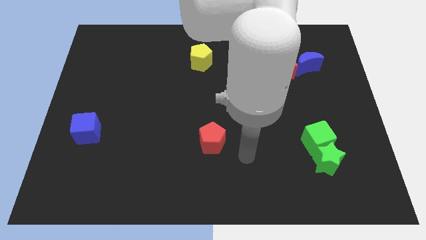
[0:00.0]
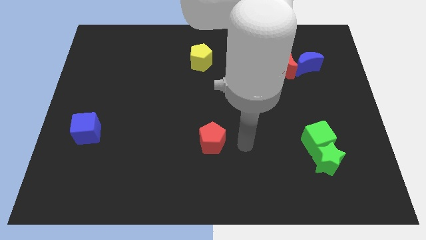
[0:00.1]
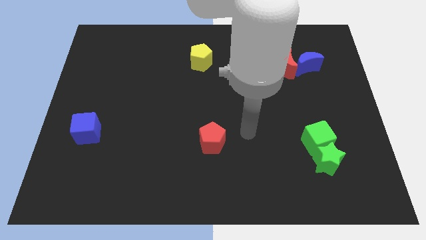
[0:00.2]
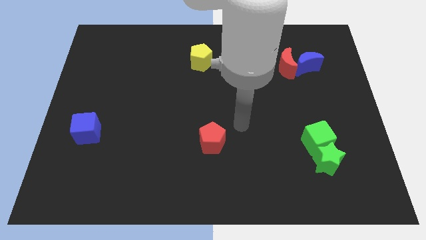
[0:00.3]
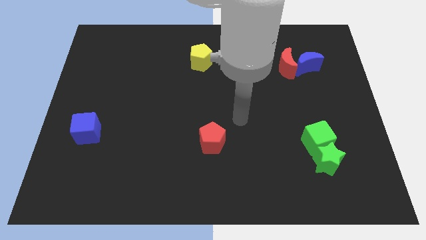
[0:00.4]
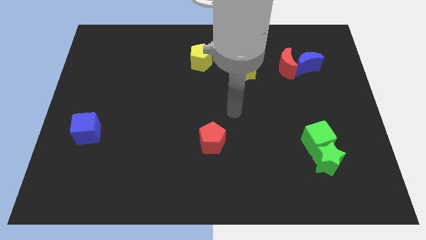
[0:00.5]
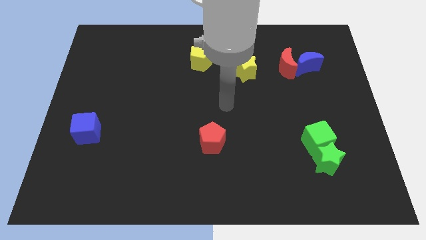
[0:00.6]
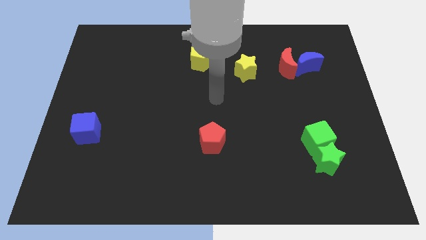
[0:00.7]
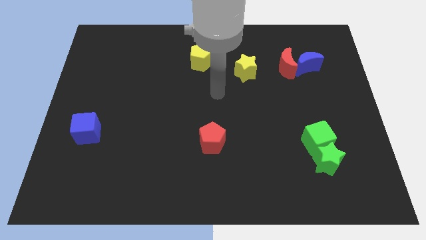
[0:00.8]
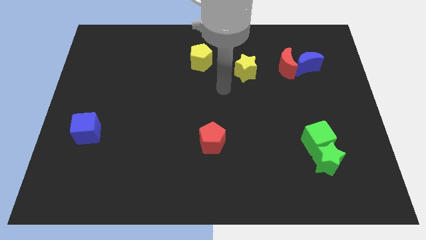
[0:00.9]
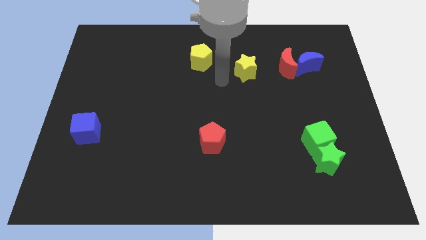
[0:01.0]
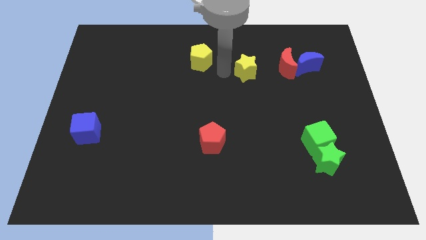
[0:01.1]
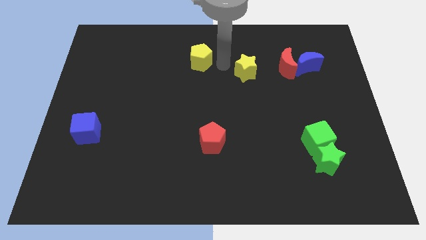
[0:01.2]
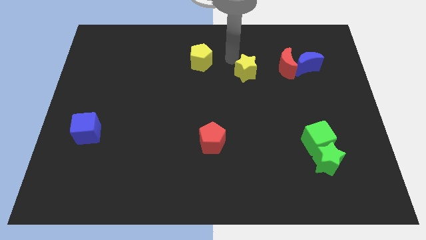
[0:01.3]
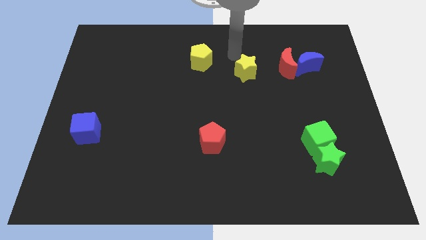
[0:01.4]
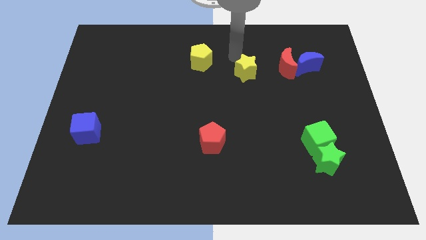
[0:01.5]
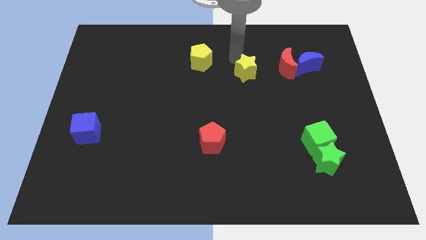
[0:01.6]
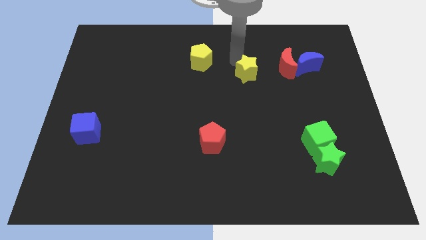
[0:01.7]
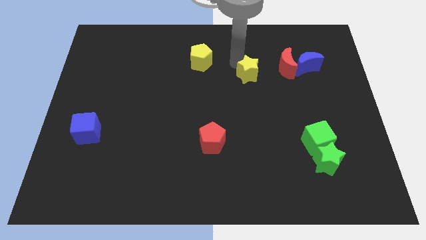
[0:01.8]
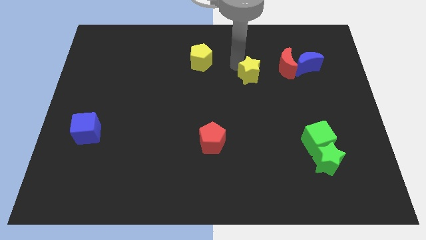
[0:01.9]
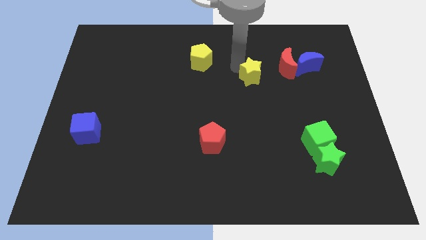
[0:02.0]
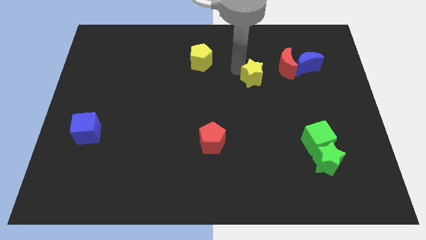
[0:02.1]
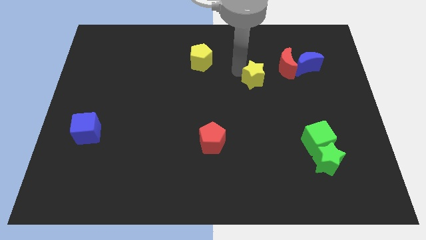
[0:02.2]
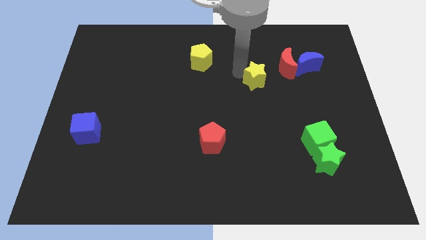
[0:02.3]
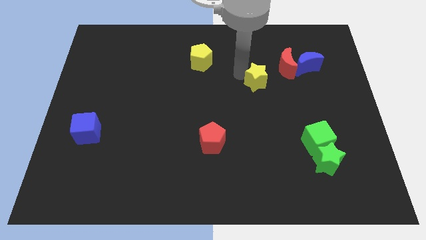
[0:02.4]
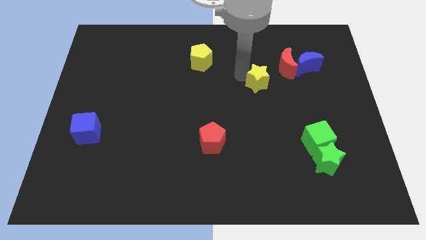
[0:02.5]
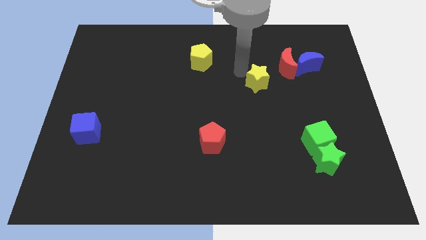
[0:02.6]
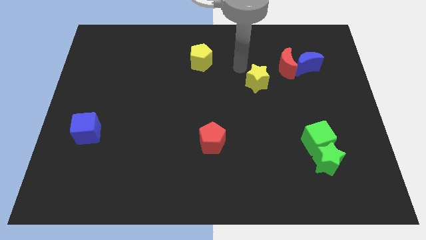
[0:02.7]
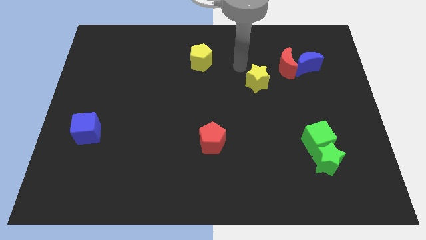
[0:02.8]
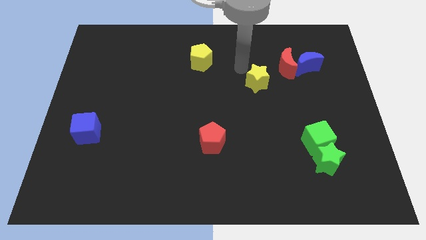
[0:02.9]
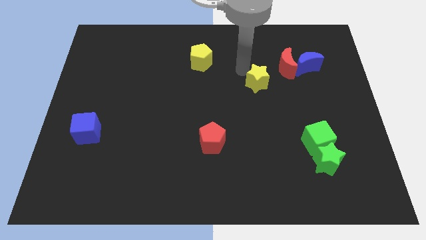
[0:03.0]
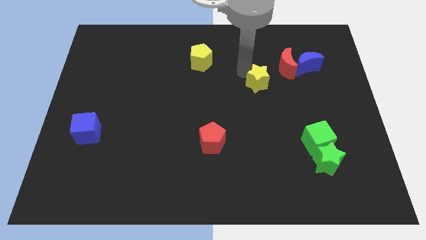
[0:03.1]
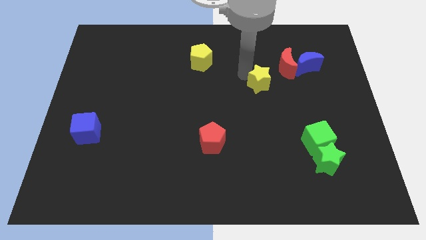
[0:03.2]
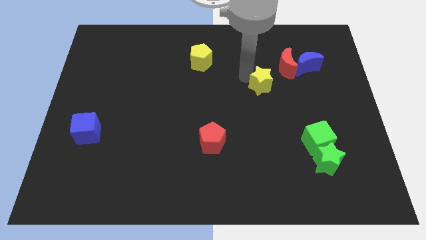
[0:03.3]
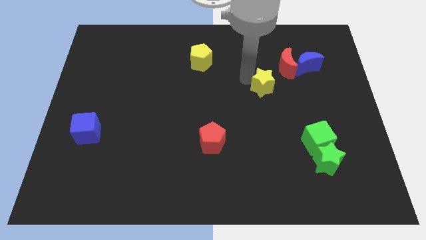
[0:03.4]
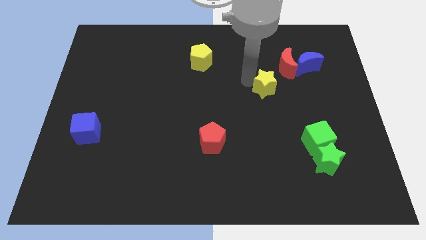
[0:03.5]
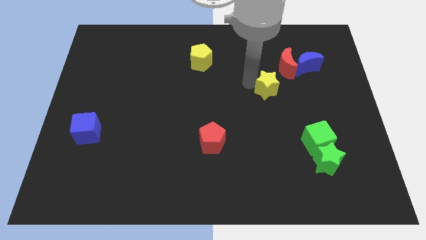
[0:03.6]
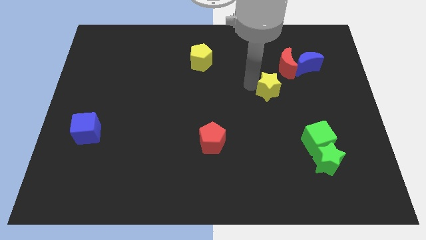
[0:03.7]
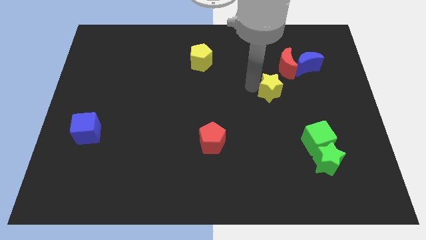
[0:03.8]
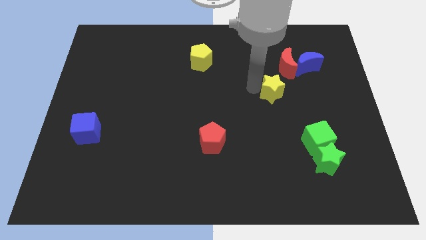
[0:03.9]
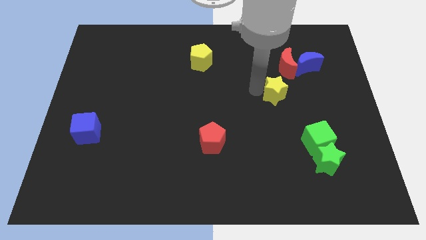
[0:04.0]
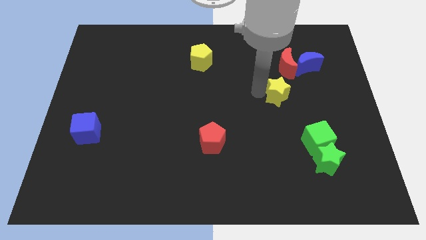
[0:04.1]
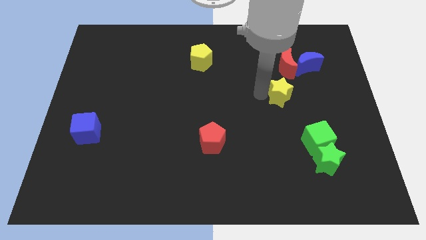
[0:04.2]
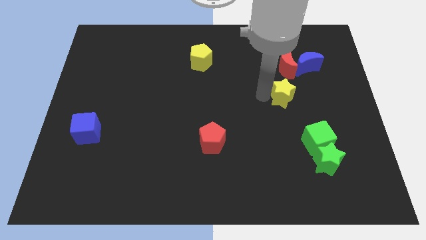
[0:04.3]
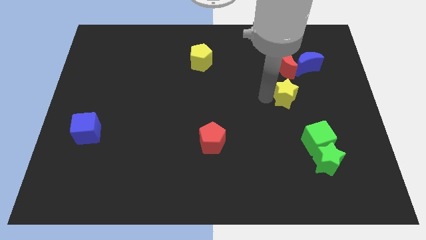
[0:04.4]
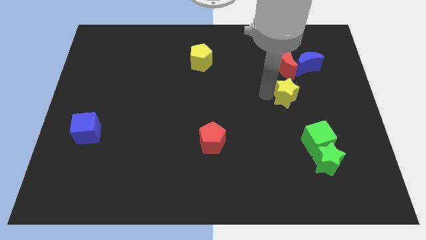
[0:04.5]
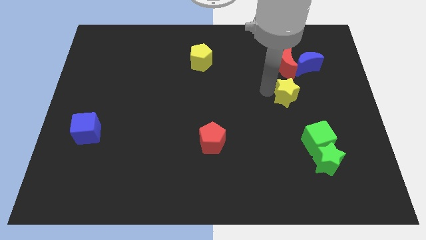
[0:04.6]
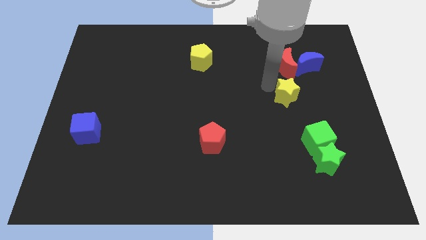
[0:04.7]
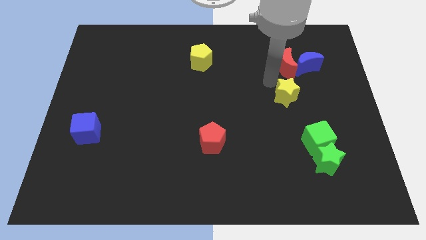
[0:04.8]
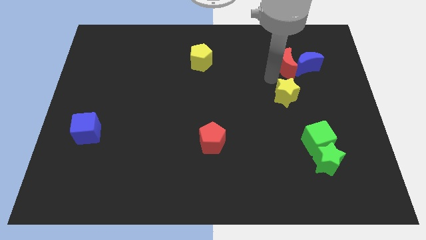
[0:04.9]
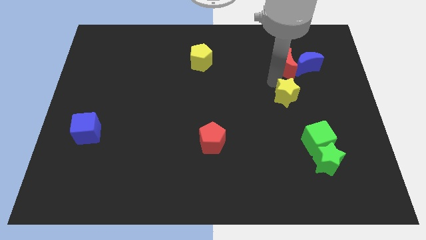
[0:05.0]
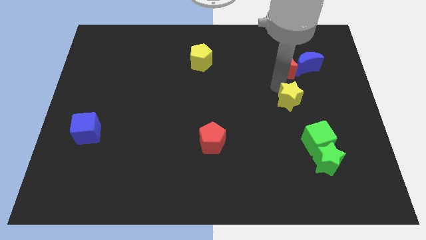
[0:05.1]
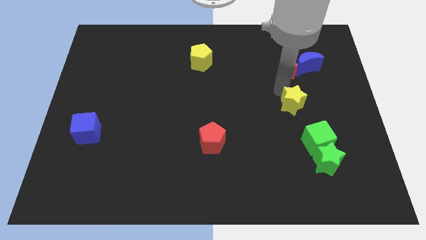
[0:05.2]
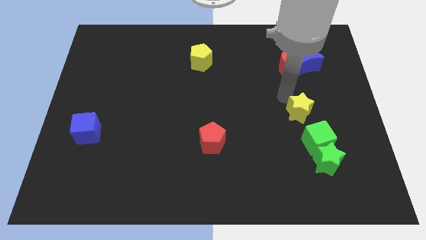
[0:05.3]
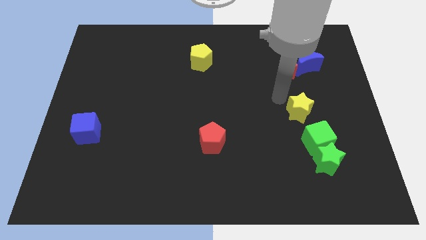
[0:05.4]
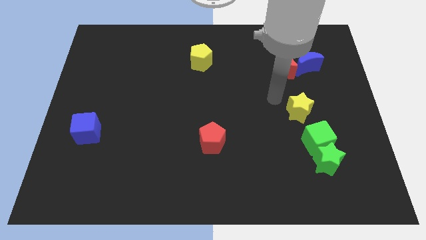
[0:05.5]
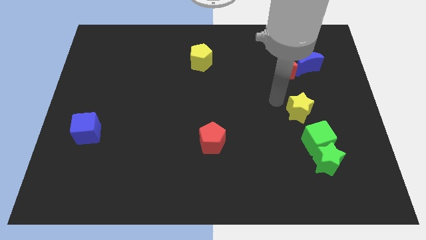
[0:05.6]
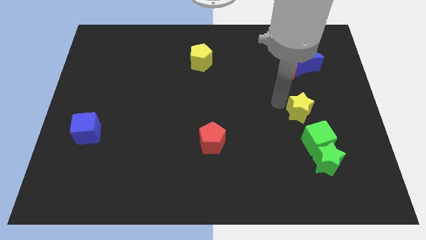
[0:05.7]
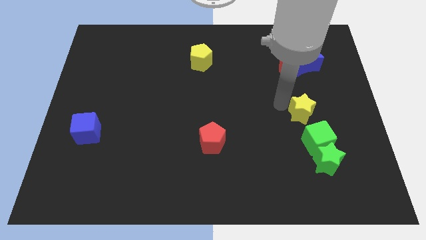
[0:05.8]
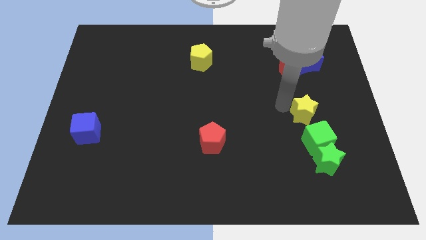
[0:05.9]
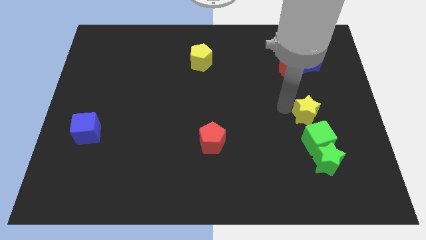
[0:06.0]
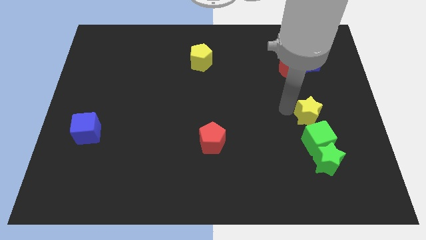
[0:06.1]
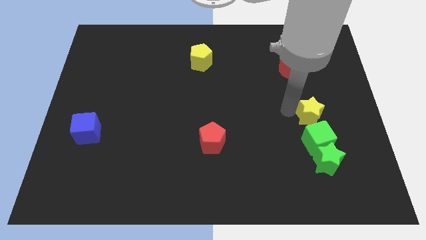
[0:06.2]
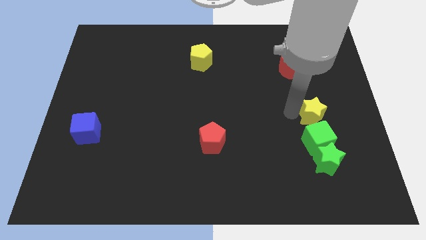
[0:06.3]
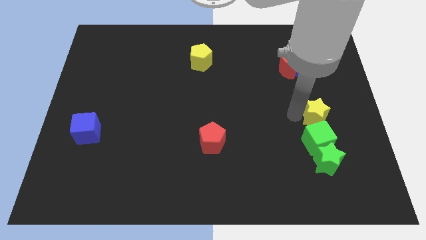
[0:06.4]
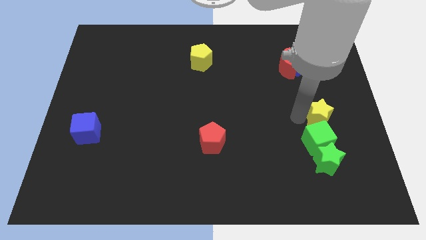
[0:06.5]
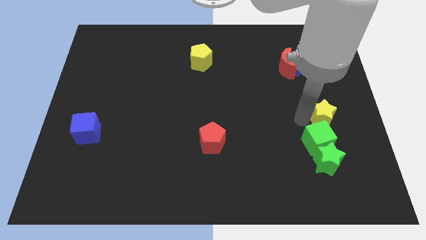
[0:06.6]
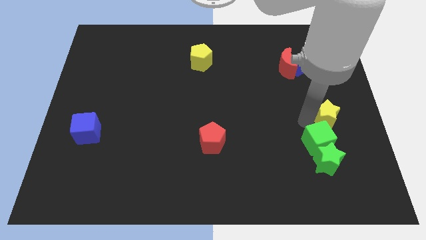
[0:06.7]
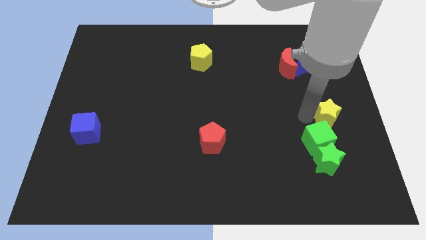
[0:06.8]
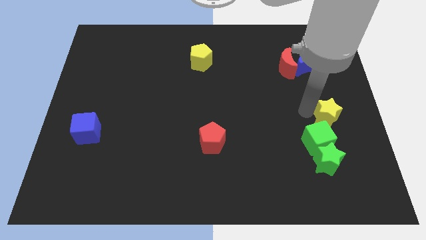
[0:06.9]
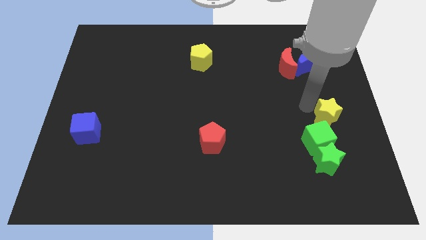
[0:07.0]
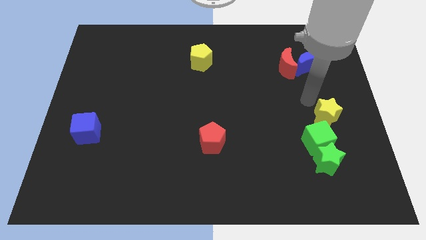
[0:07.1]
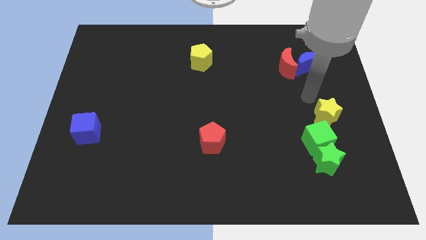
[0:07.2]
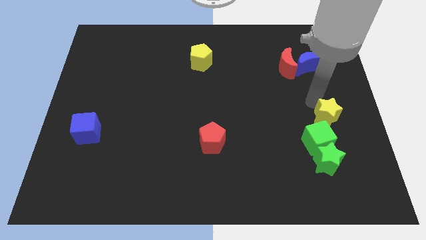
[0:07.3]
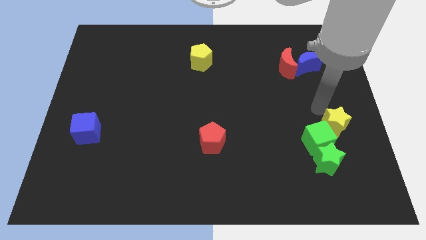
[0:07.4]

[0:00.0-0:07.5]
move the yellow star to the top right side of the green star

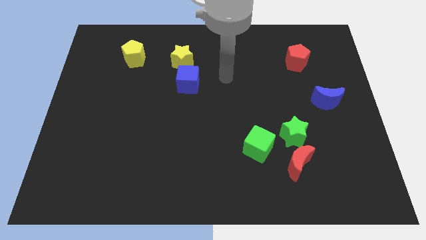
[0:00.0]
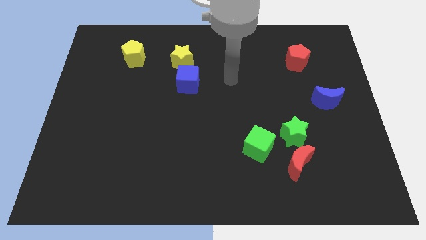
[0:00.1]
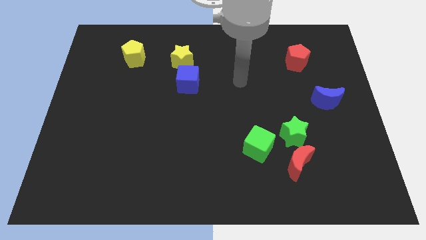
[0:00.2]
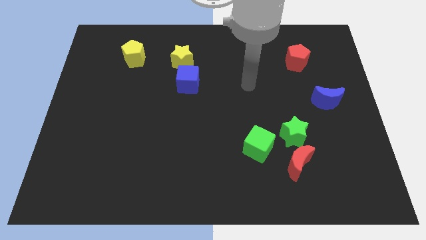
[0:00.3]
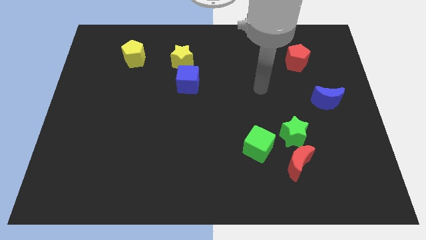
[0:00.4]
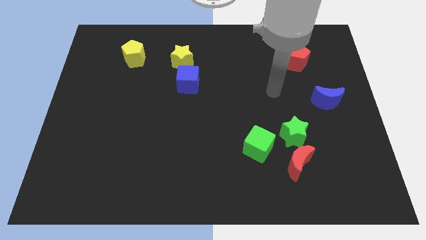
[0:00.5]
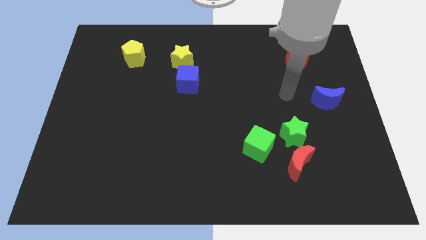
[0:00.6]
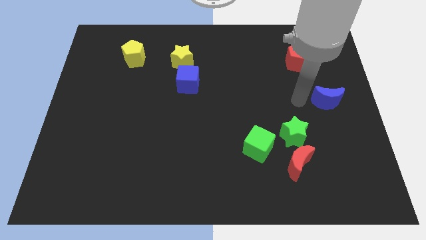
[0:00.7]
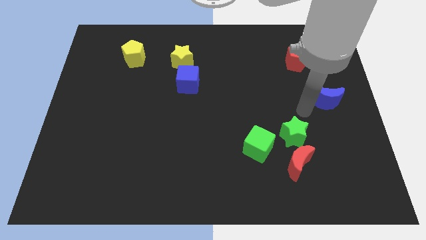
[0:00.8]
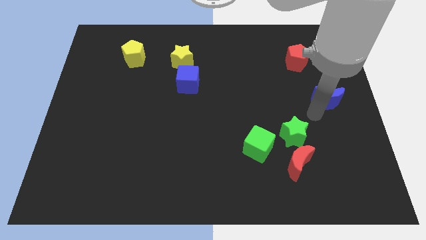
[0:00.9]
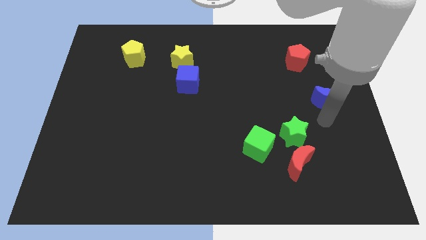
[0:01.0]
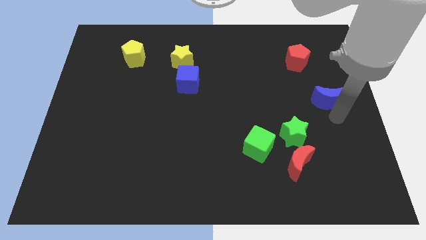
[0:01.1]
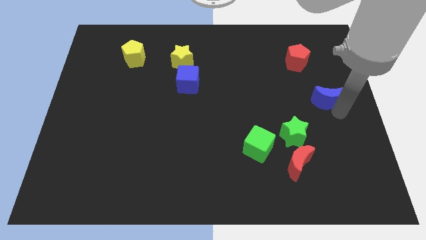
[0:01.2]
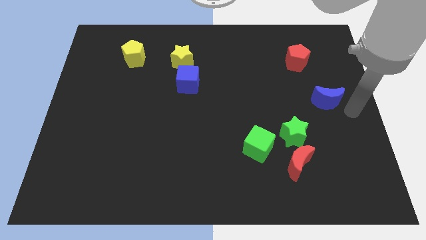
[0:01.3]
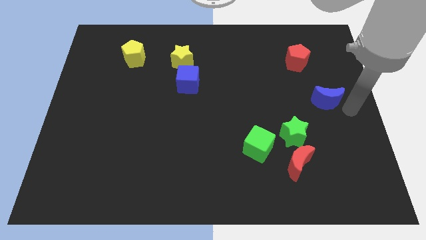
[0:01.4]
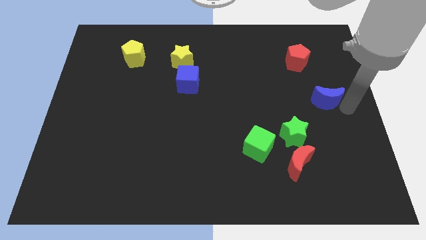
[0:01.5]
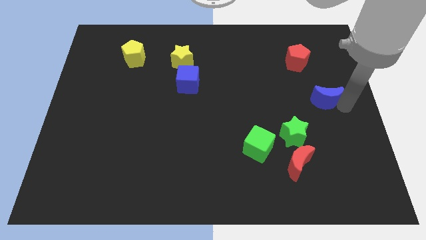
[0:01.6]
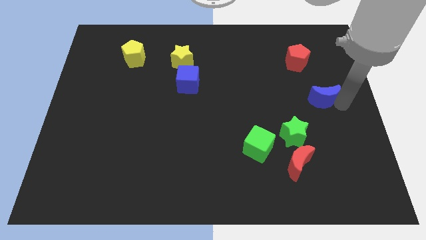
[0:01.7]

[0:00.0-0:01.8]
put the blue moon below the red pentagon
